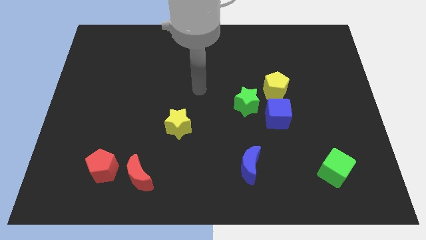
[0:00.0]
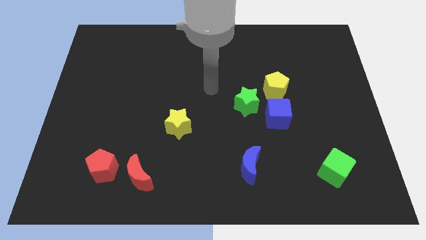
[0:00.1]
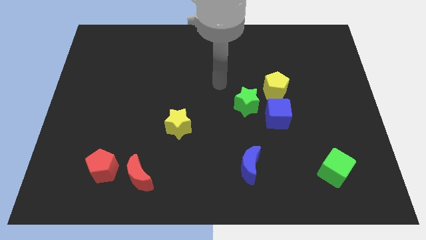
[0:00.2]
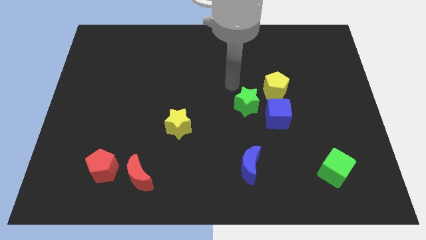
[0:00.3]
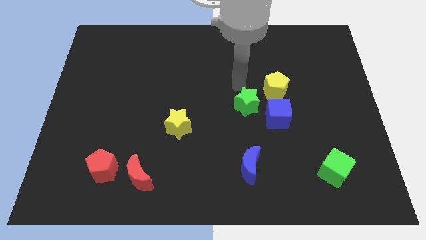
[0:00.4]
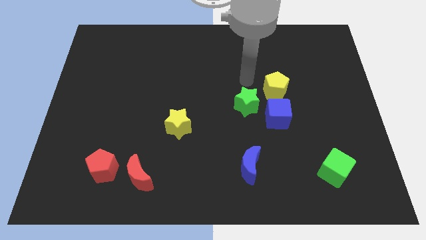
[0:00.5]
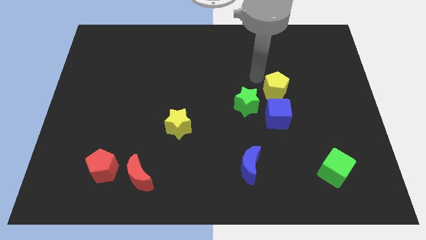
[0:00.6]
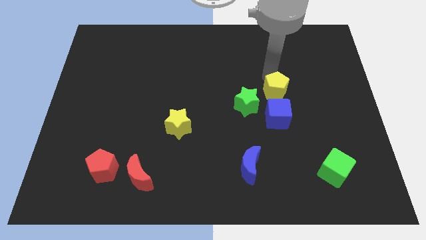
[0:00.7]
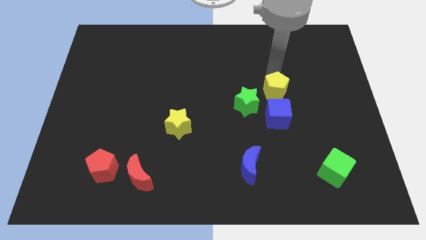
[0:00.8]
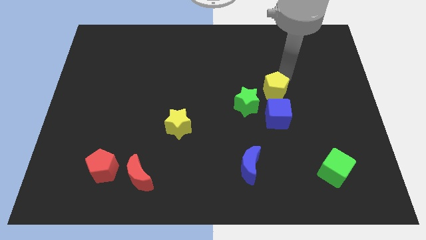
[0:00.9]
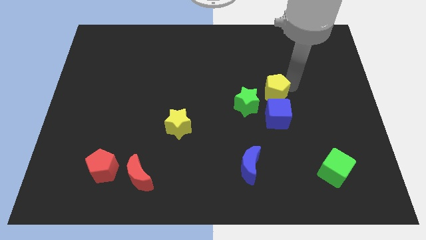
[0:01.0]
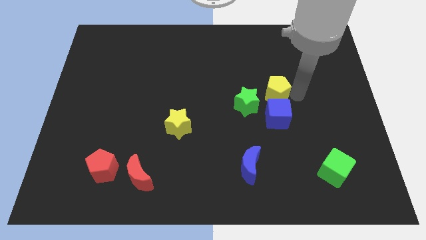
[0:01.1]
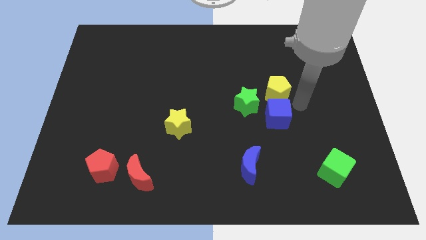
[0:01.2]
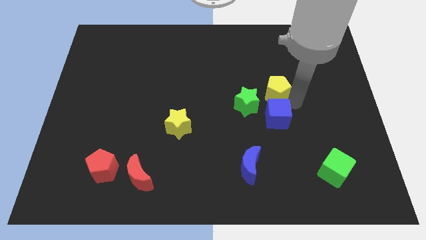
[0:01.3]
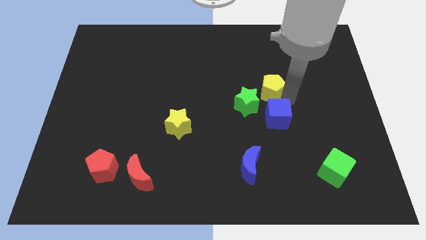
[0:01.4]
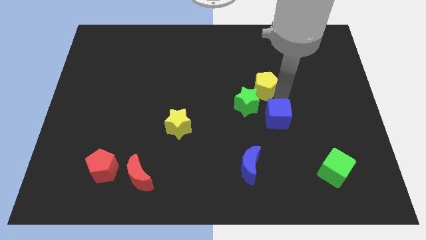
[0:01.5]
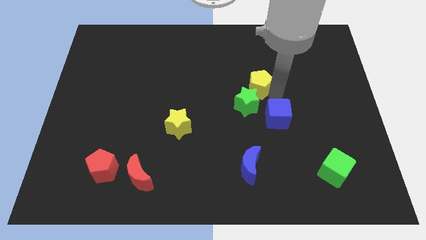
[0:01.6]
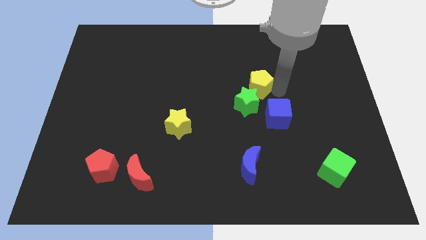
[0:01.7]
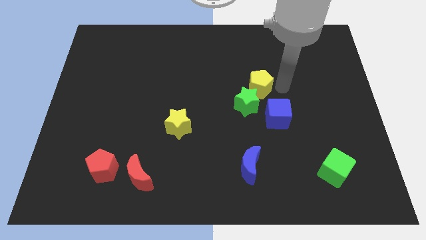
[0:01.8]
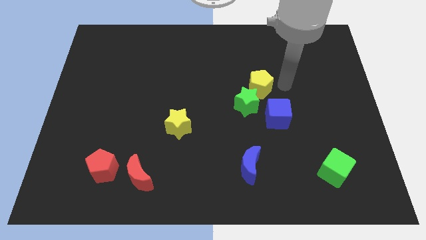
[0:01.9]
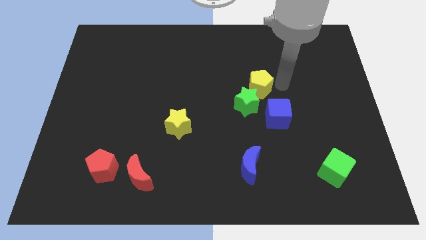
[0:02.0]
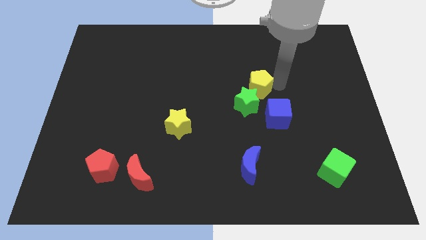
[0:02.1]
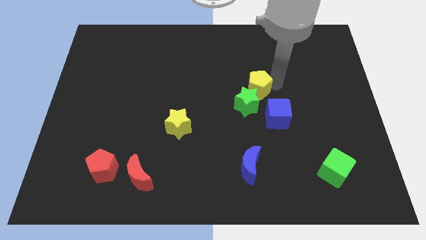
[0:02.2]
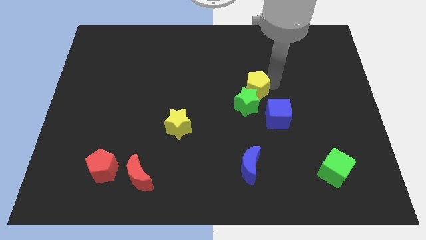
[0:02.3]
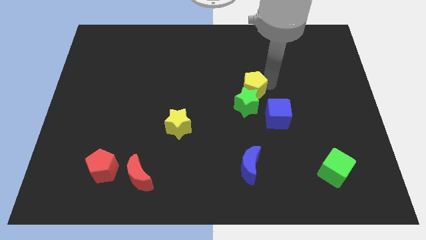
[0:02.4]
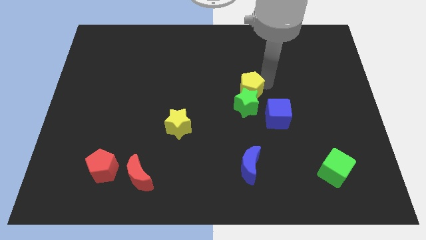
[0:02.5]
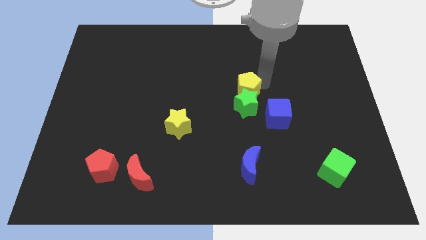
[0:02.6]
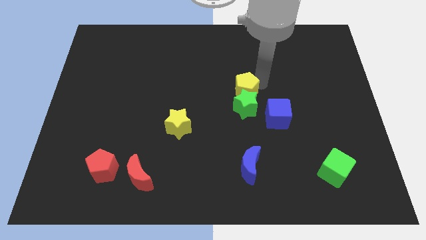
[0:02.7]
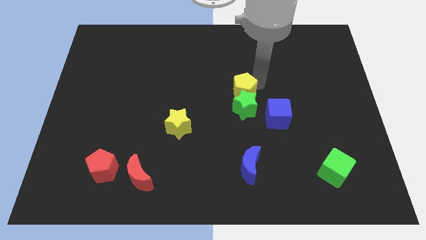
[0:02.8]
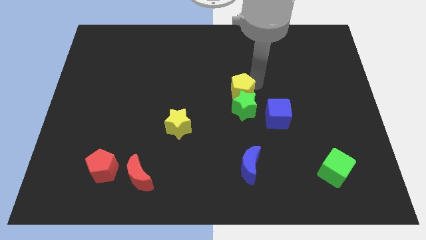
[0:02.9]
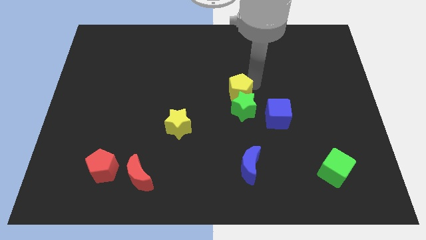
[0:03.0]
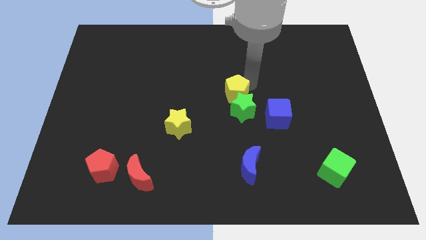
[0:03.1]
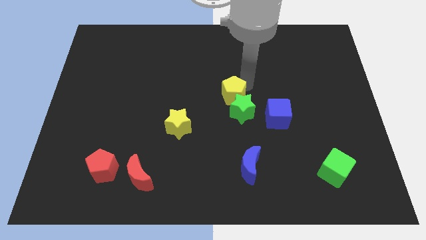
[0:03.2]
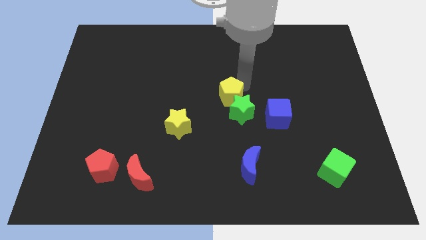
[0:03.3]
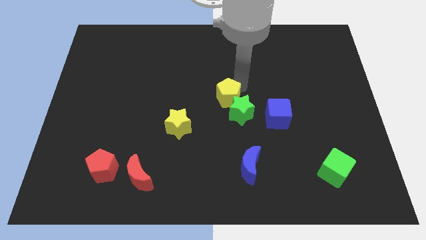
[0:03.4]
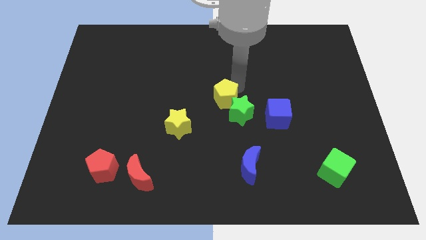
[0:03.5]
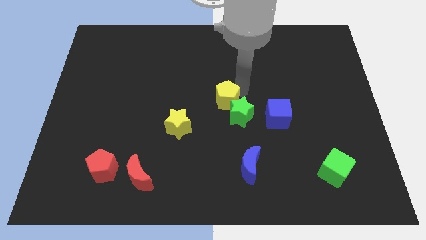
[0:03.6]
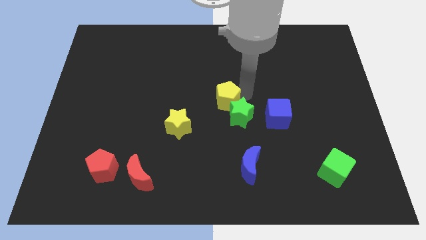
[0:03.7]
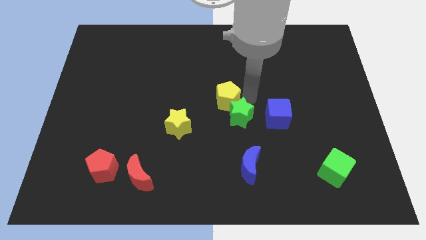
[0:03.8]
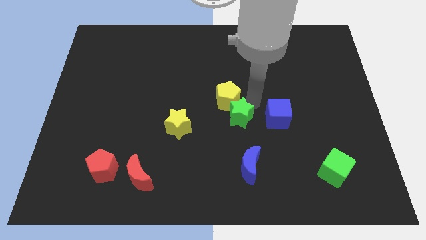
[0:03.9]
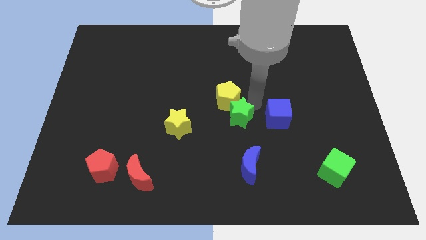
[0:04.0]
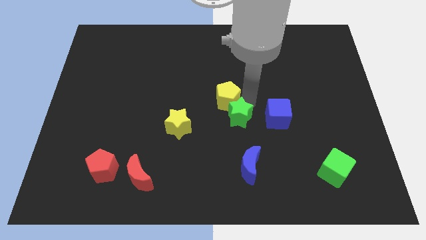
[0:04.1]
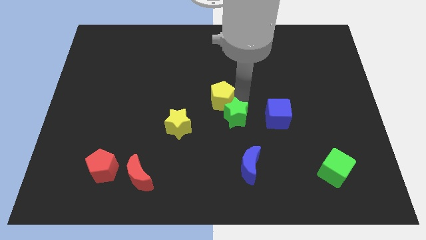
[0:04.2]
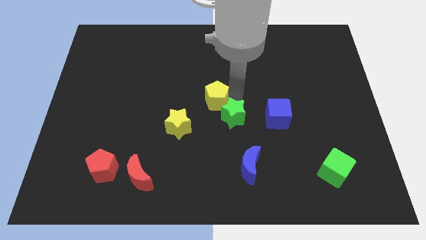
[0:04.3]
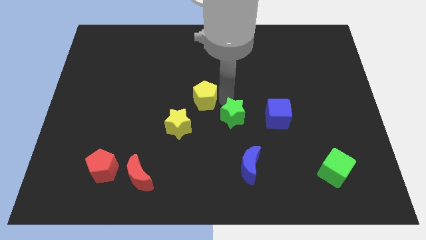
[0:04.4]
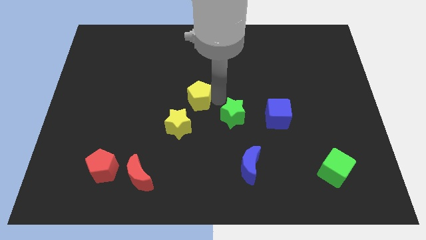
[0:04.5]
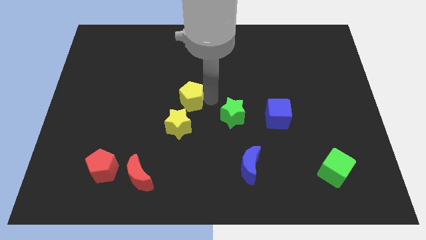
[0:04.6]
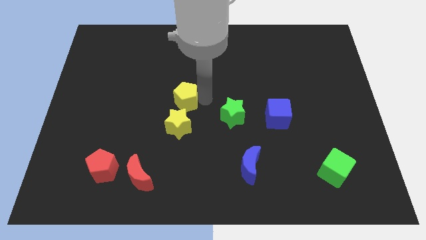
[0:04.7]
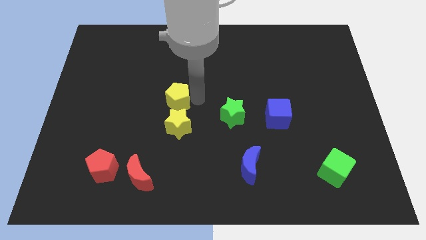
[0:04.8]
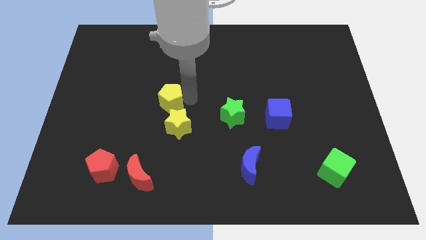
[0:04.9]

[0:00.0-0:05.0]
slide the yellow pentagon to the top left of the yellow star

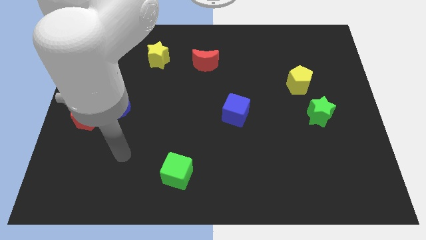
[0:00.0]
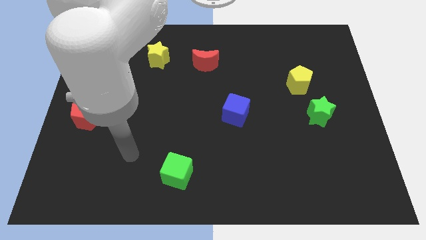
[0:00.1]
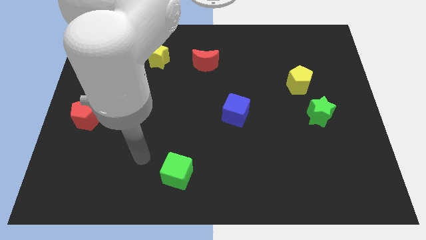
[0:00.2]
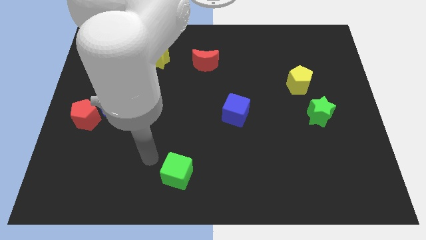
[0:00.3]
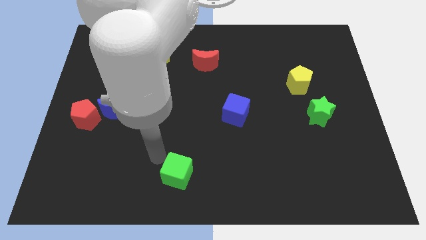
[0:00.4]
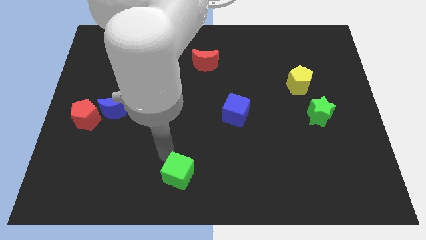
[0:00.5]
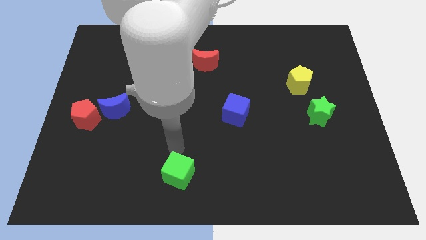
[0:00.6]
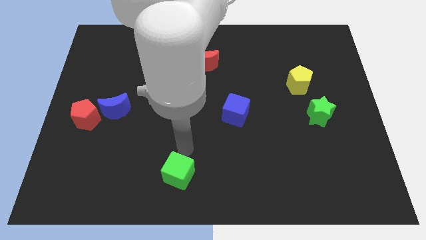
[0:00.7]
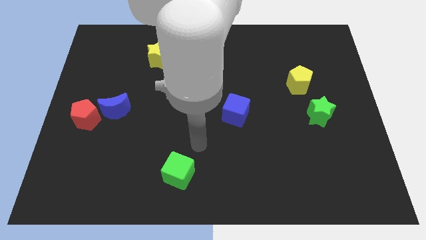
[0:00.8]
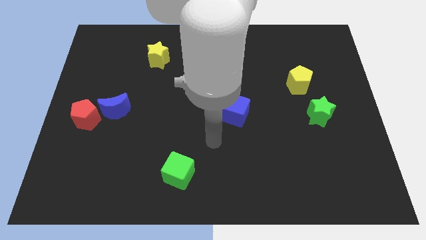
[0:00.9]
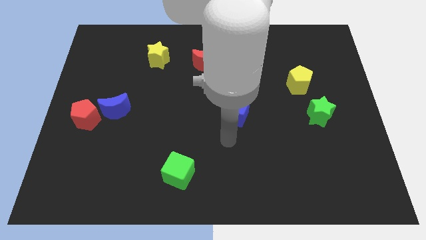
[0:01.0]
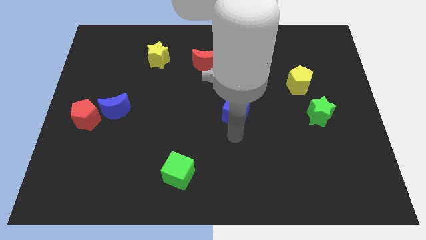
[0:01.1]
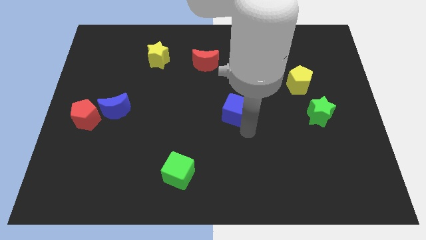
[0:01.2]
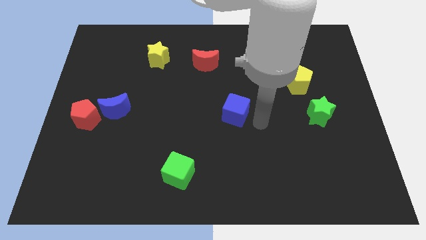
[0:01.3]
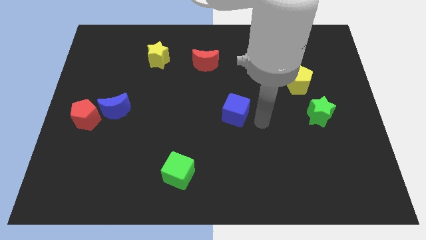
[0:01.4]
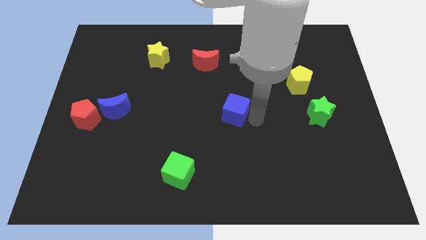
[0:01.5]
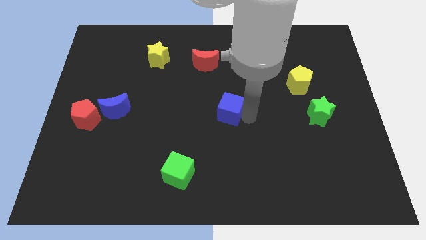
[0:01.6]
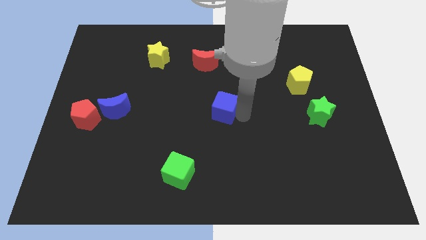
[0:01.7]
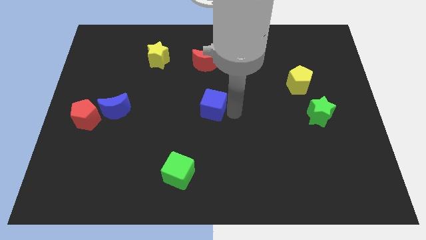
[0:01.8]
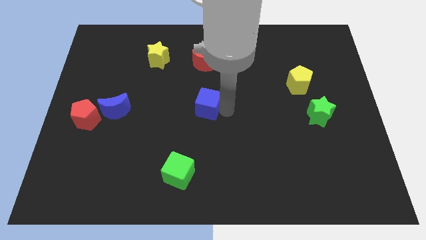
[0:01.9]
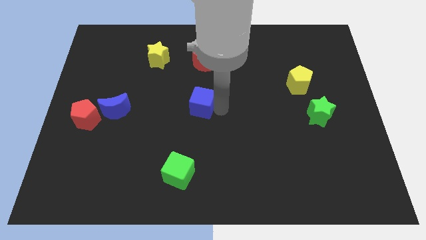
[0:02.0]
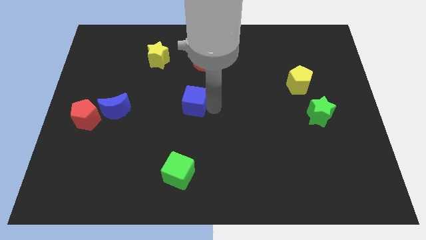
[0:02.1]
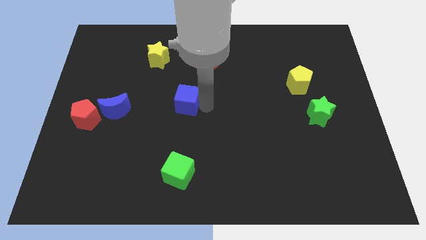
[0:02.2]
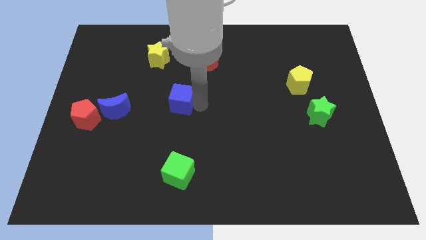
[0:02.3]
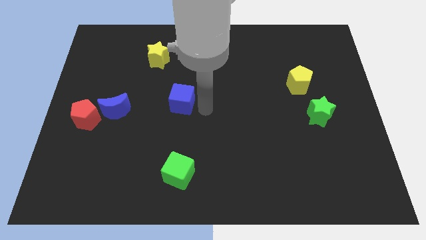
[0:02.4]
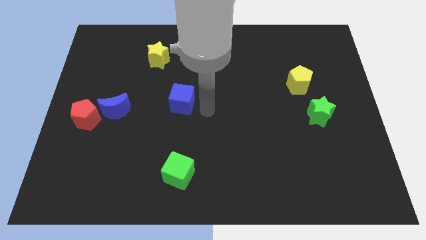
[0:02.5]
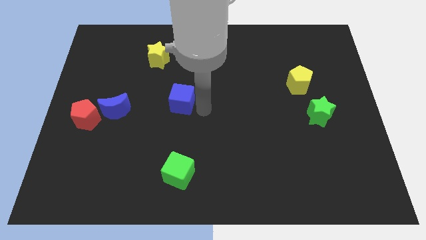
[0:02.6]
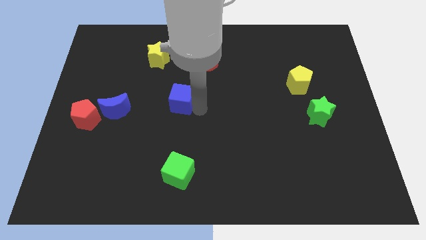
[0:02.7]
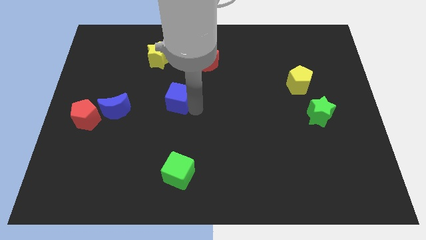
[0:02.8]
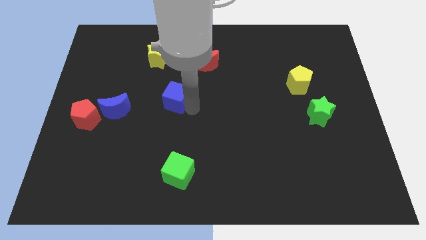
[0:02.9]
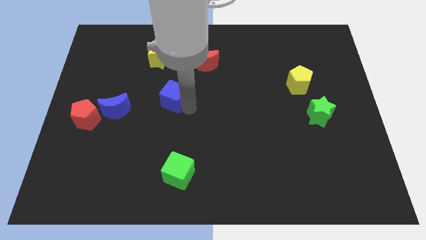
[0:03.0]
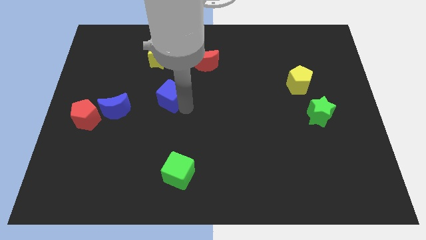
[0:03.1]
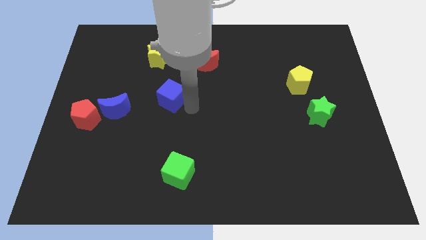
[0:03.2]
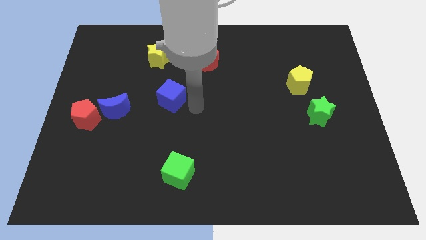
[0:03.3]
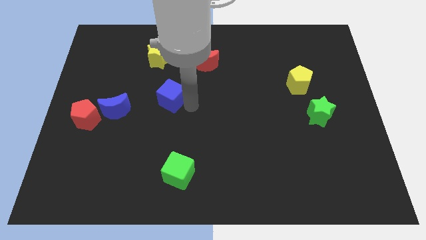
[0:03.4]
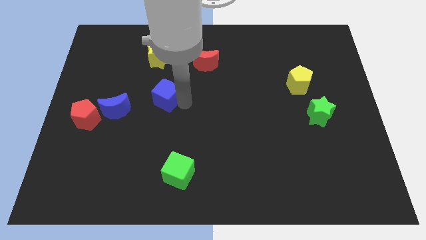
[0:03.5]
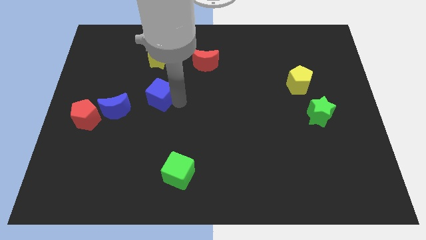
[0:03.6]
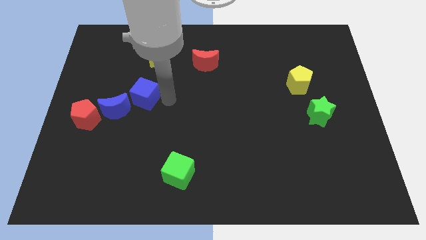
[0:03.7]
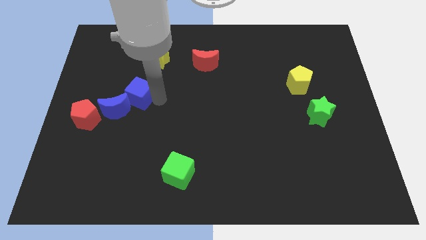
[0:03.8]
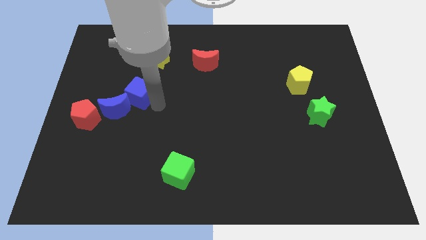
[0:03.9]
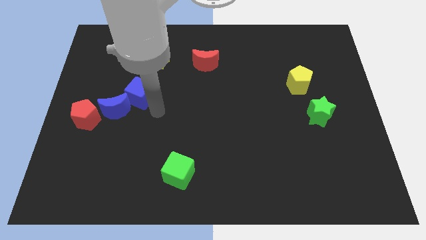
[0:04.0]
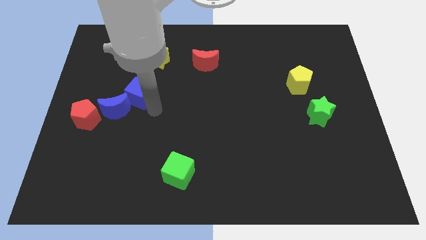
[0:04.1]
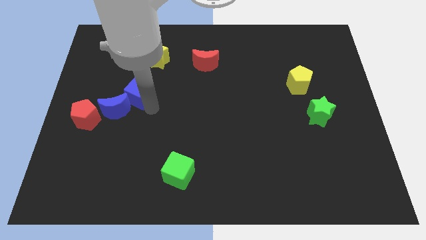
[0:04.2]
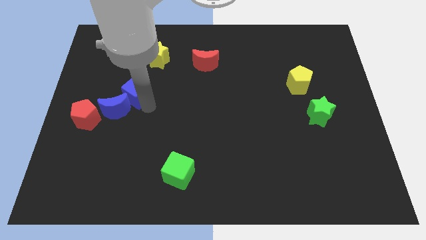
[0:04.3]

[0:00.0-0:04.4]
slide the blue cube to the top of the blue moon
